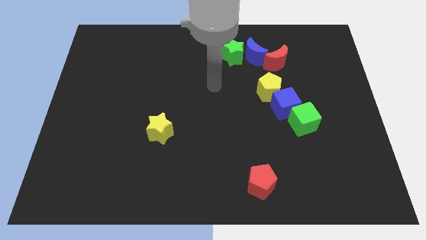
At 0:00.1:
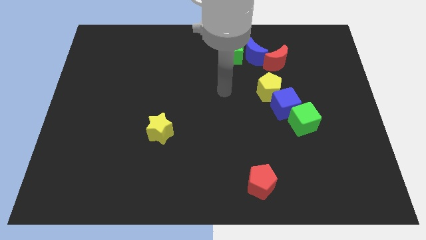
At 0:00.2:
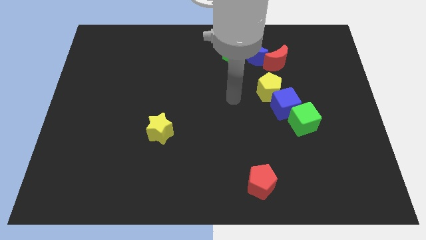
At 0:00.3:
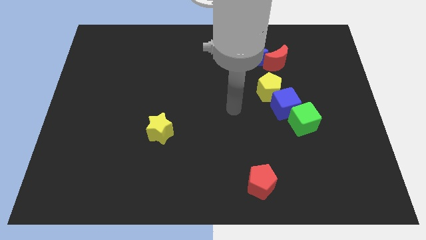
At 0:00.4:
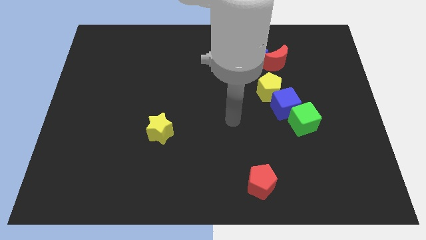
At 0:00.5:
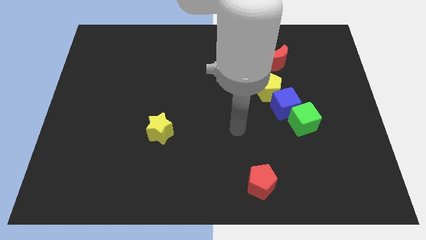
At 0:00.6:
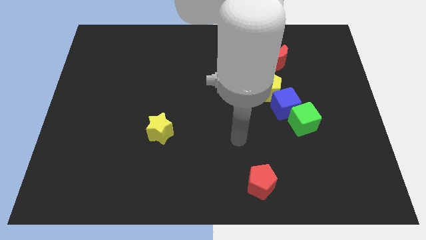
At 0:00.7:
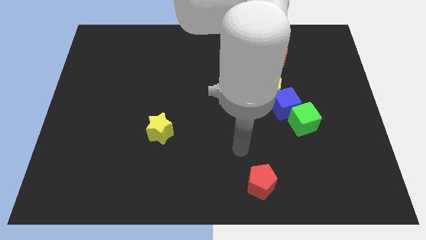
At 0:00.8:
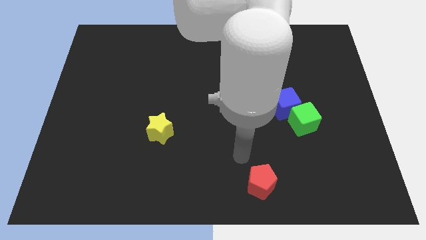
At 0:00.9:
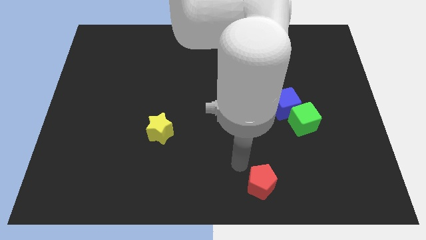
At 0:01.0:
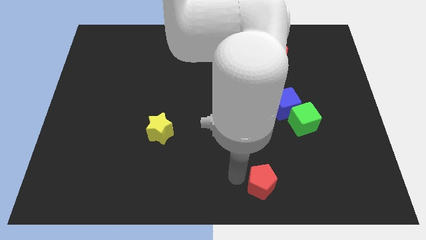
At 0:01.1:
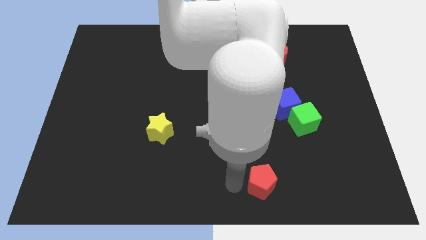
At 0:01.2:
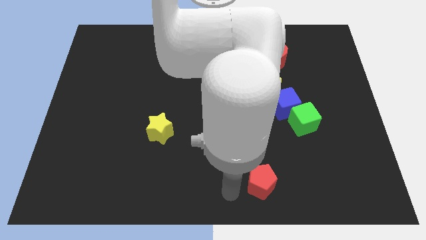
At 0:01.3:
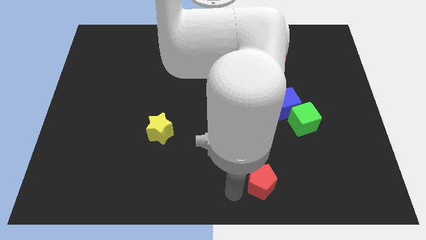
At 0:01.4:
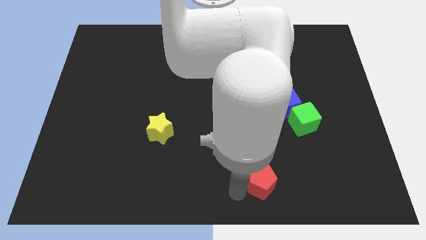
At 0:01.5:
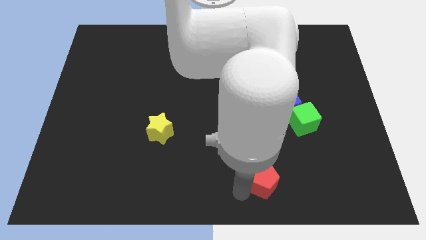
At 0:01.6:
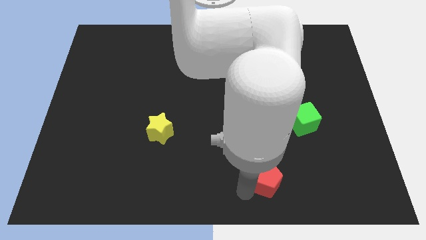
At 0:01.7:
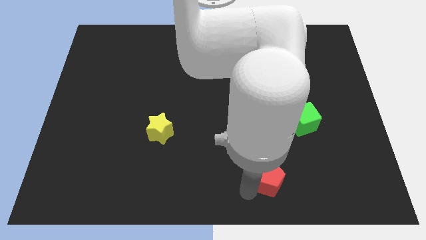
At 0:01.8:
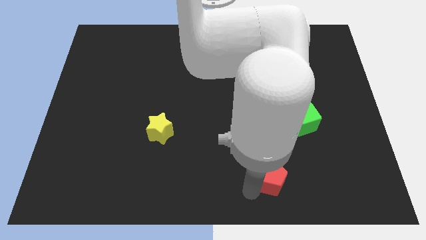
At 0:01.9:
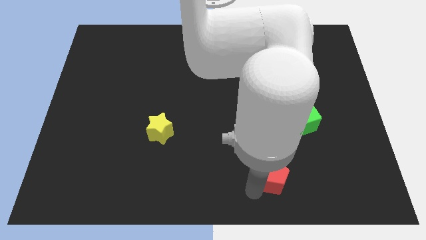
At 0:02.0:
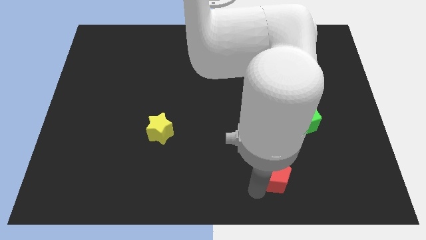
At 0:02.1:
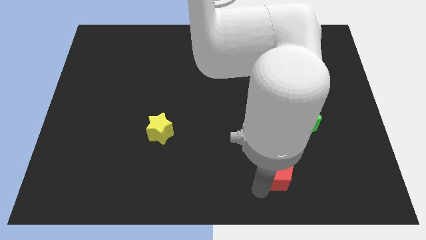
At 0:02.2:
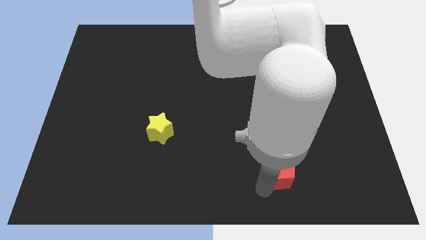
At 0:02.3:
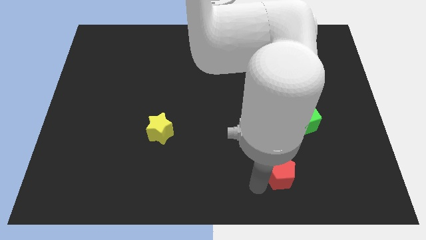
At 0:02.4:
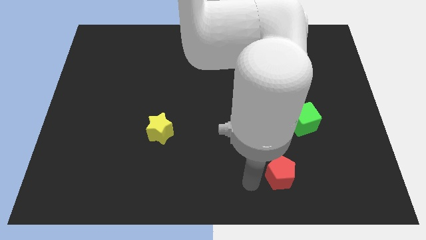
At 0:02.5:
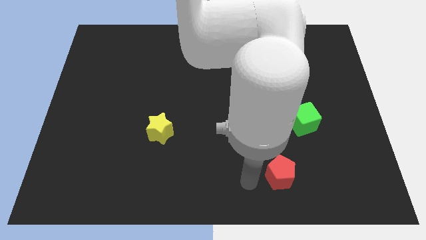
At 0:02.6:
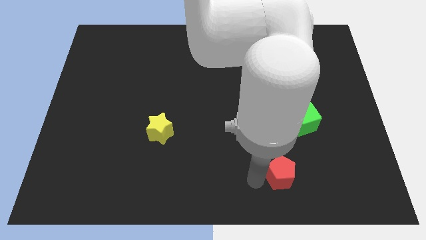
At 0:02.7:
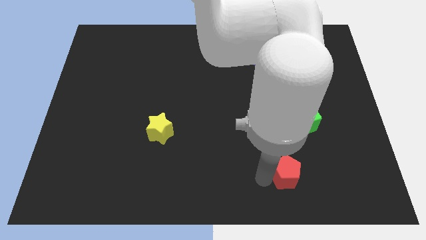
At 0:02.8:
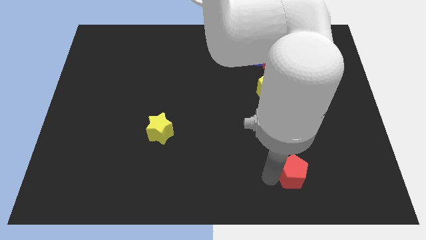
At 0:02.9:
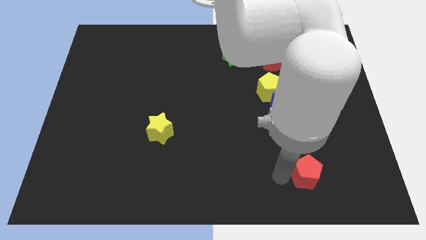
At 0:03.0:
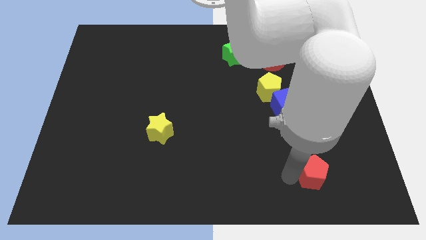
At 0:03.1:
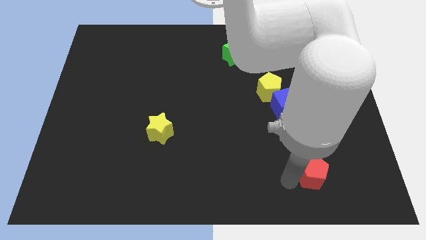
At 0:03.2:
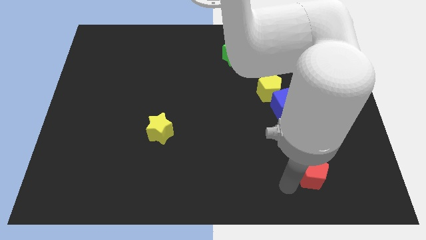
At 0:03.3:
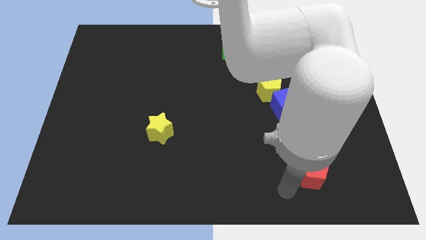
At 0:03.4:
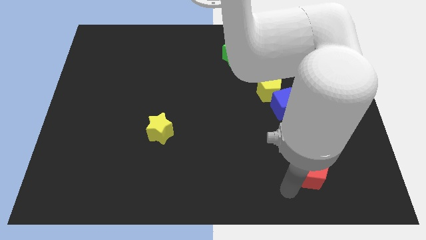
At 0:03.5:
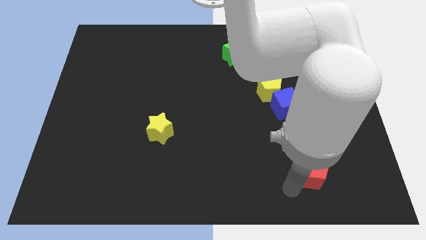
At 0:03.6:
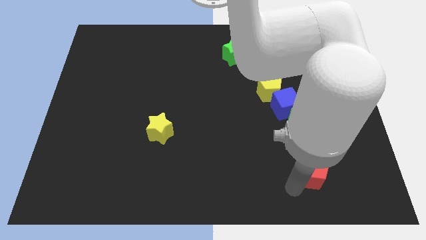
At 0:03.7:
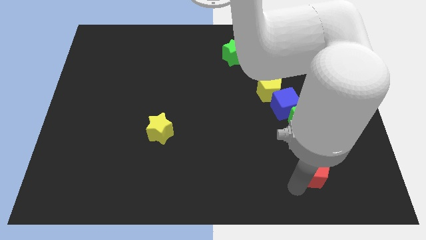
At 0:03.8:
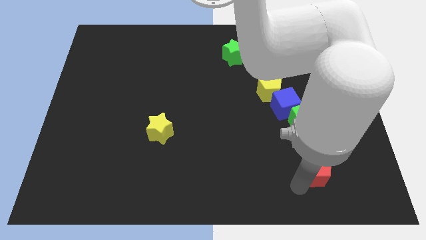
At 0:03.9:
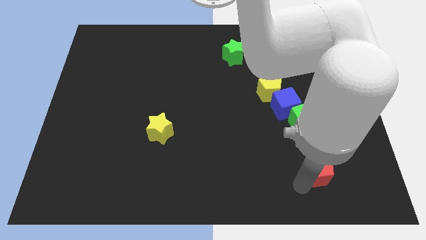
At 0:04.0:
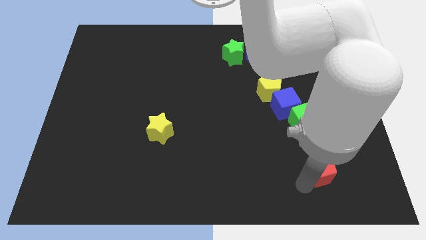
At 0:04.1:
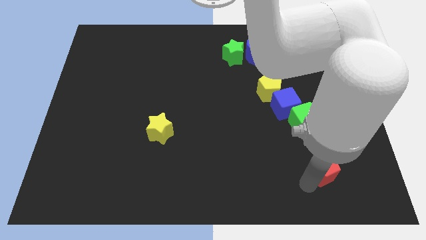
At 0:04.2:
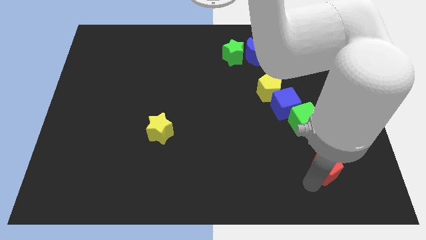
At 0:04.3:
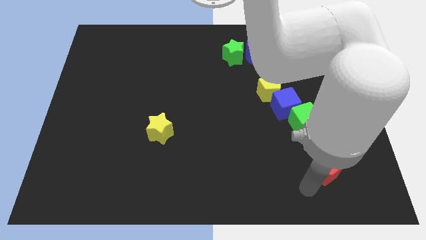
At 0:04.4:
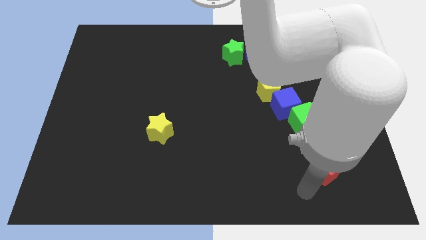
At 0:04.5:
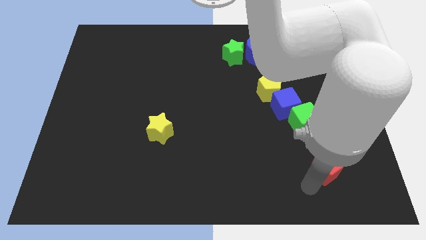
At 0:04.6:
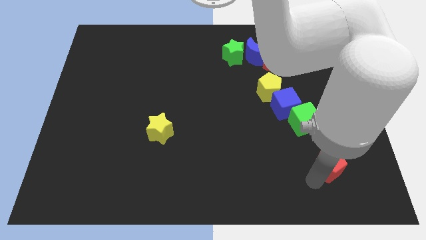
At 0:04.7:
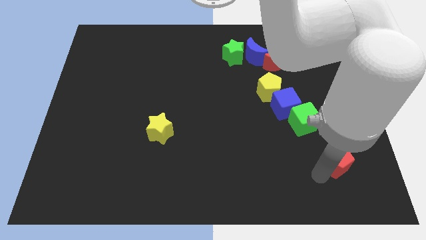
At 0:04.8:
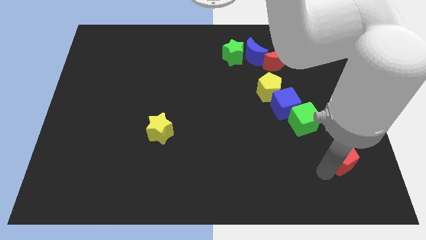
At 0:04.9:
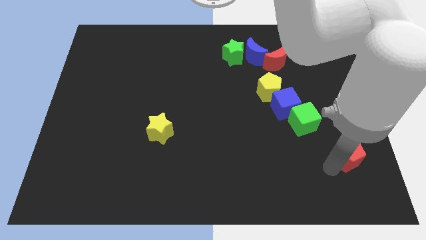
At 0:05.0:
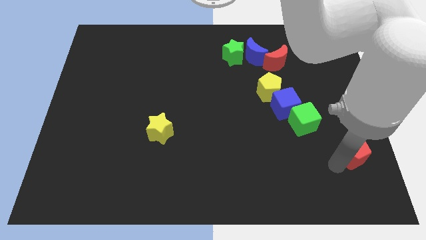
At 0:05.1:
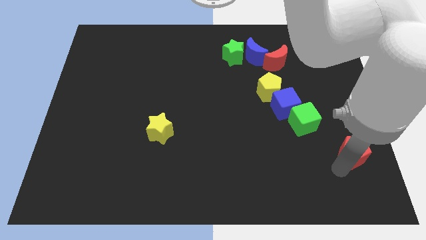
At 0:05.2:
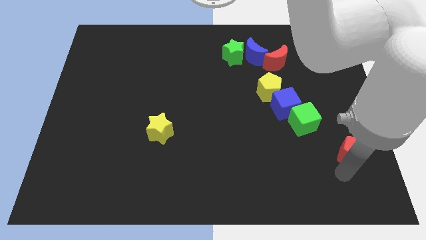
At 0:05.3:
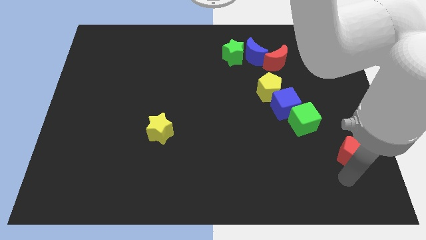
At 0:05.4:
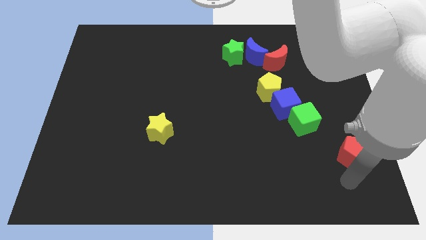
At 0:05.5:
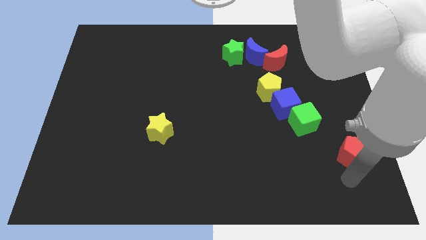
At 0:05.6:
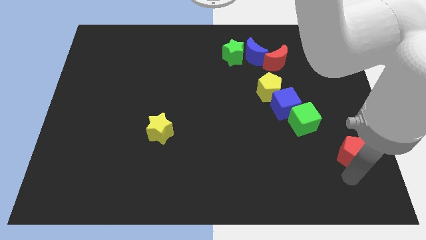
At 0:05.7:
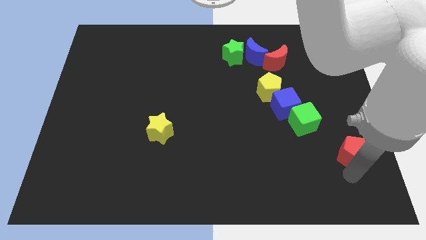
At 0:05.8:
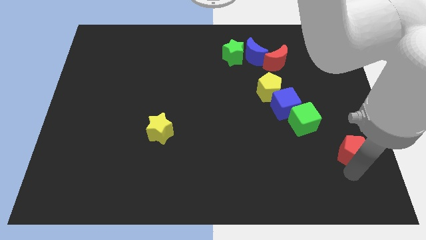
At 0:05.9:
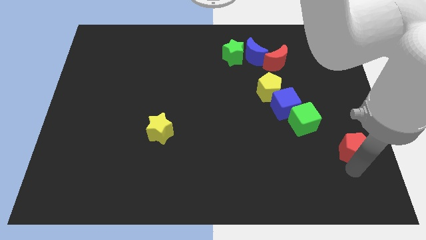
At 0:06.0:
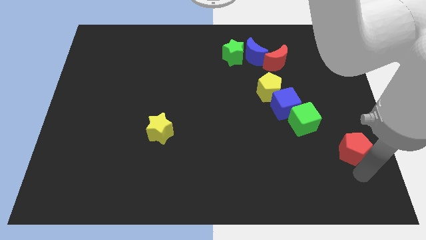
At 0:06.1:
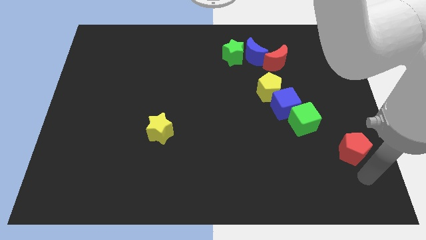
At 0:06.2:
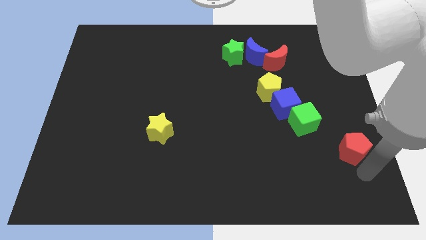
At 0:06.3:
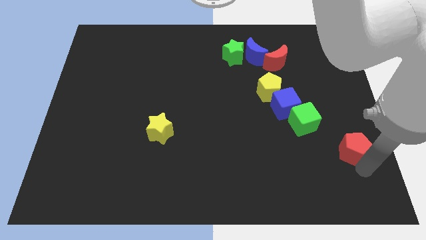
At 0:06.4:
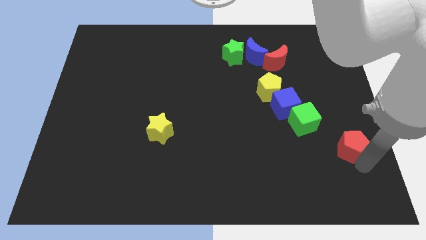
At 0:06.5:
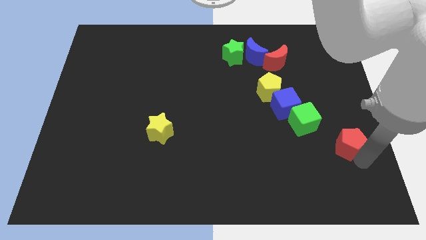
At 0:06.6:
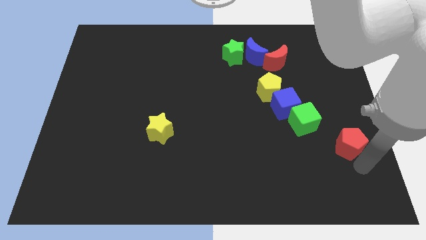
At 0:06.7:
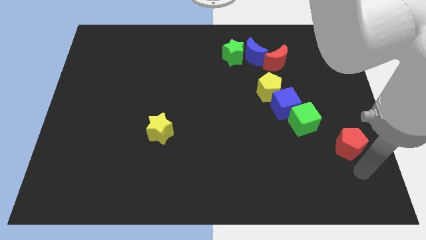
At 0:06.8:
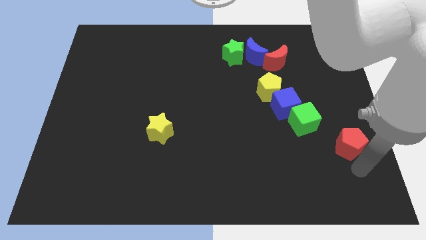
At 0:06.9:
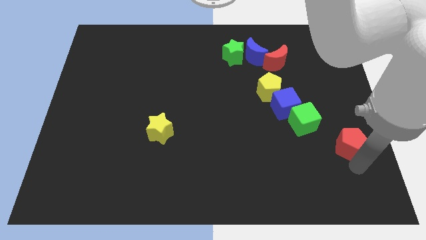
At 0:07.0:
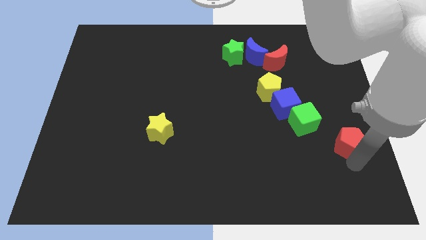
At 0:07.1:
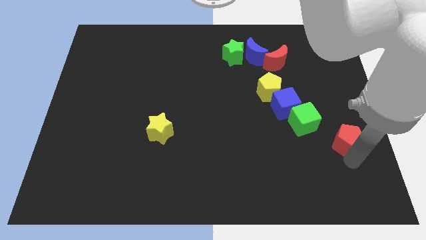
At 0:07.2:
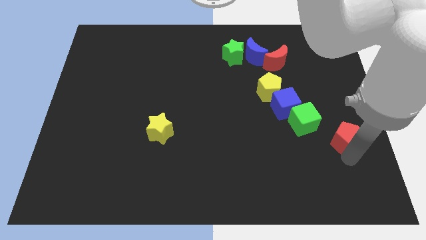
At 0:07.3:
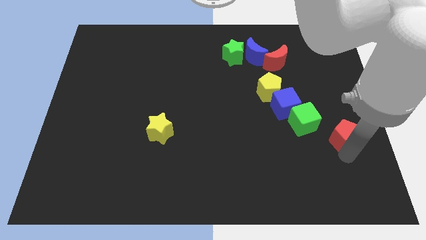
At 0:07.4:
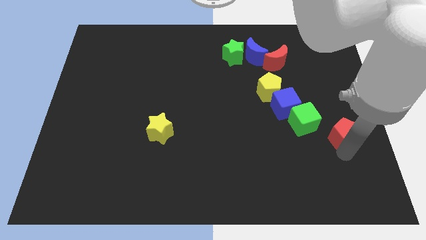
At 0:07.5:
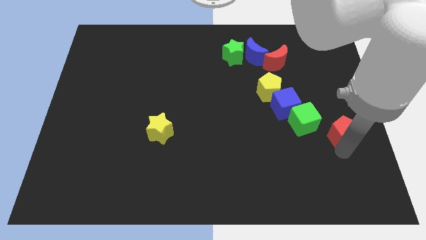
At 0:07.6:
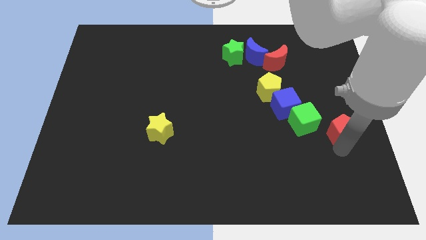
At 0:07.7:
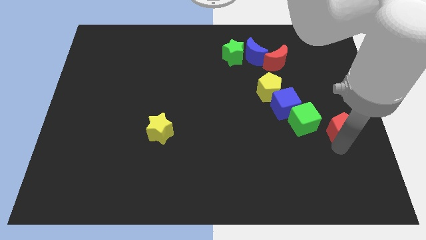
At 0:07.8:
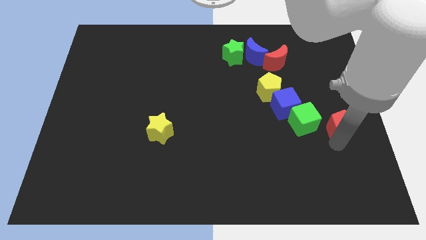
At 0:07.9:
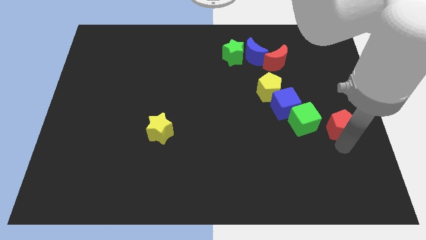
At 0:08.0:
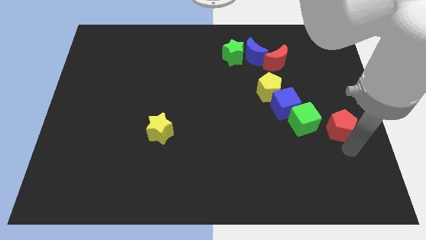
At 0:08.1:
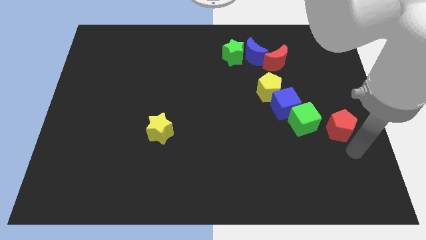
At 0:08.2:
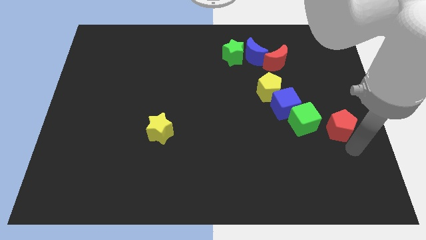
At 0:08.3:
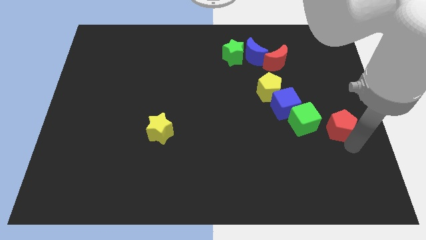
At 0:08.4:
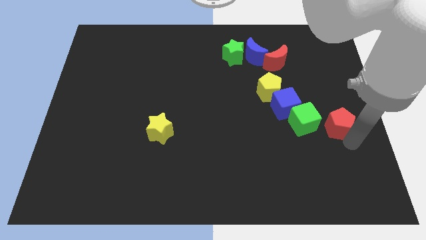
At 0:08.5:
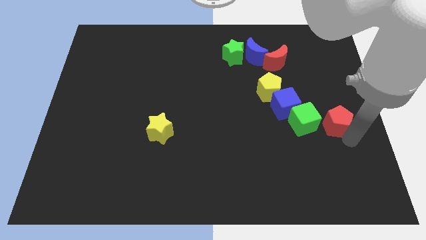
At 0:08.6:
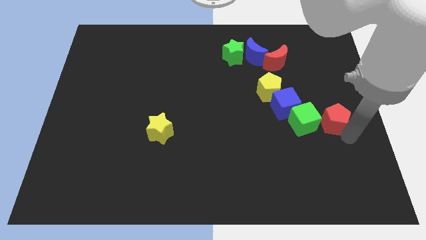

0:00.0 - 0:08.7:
push the red pentagon to the top right of the green cube
